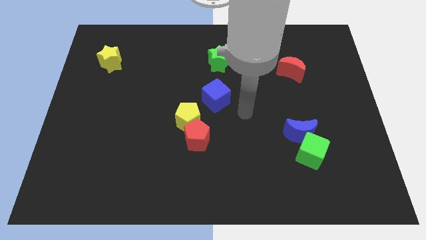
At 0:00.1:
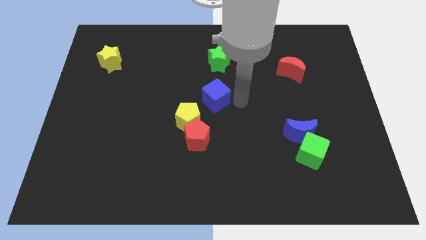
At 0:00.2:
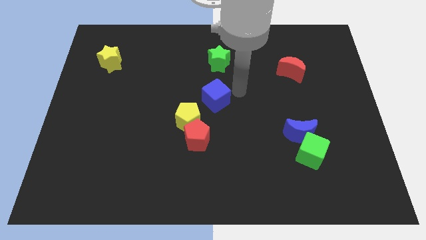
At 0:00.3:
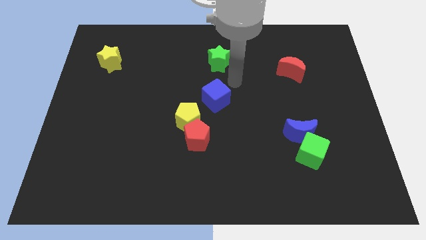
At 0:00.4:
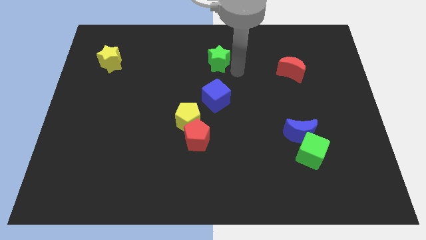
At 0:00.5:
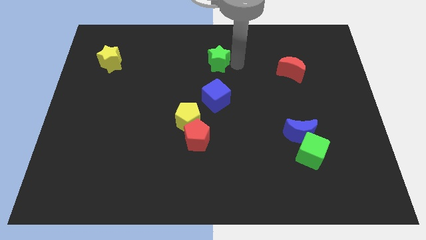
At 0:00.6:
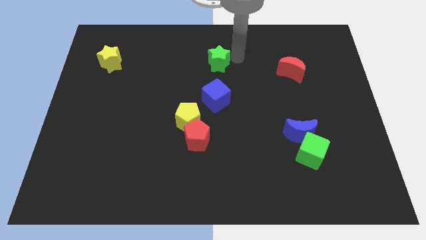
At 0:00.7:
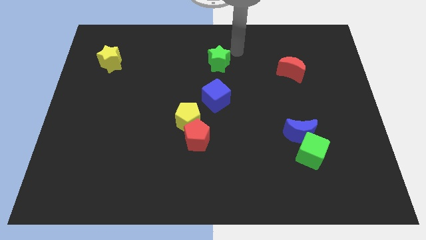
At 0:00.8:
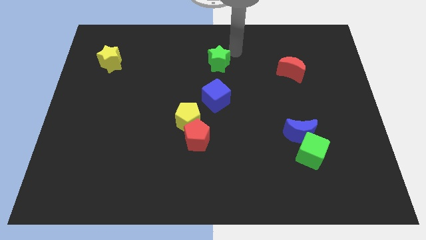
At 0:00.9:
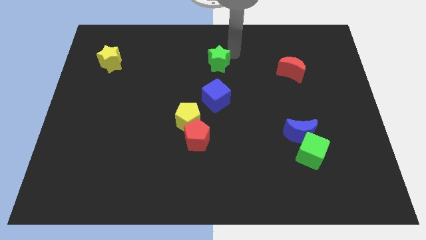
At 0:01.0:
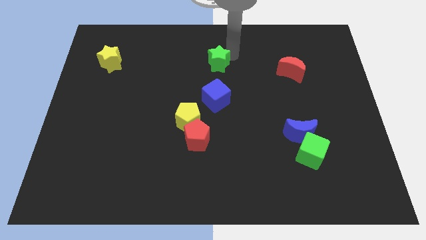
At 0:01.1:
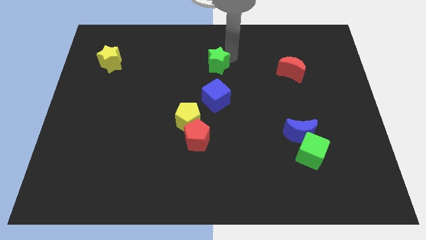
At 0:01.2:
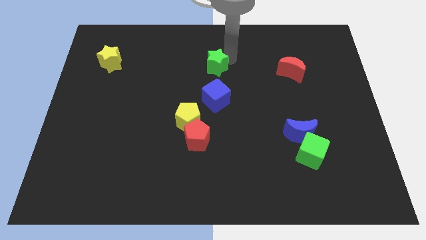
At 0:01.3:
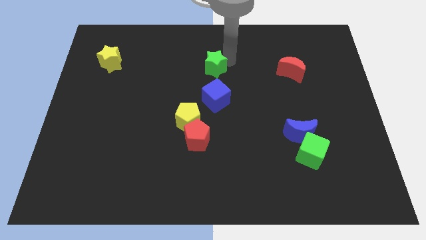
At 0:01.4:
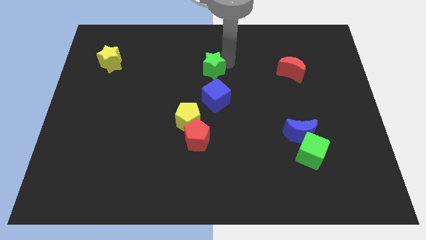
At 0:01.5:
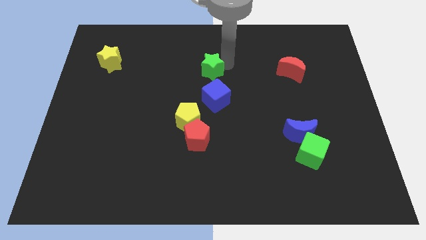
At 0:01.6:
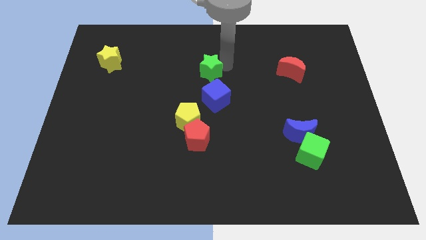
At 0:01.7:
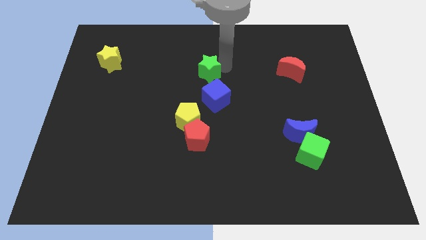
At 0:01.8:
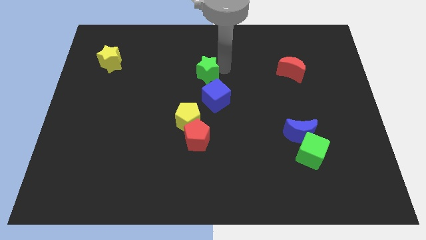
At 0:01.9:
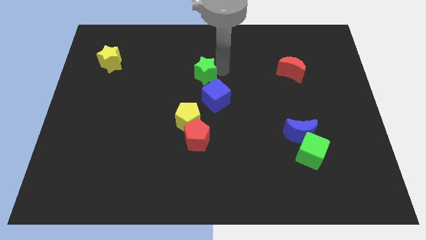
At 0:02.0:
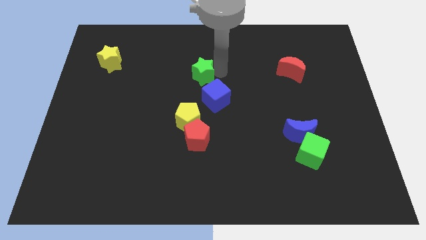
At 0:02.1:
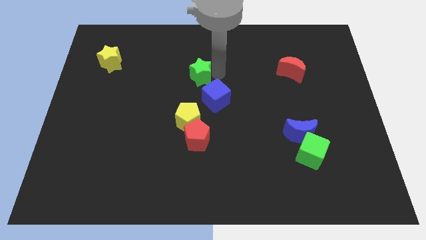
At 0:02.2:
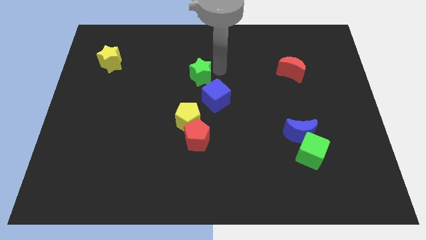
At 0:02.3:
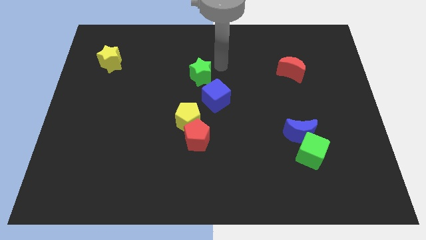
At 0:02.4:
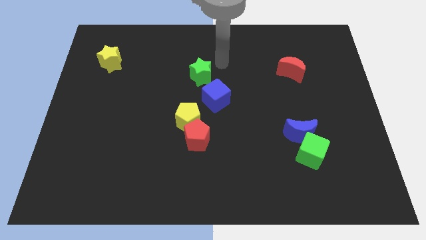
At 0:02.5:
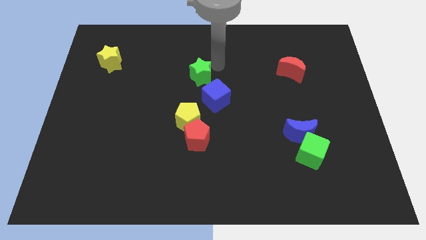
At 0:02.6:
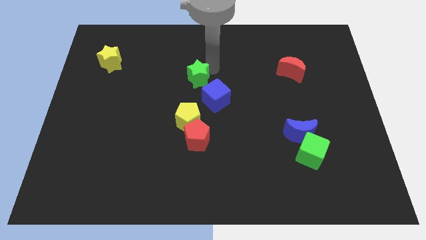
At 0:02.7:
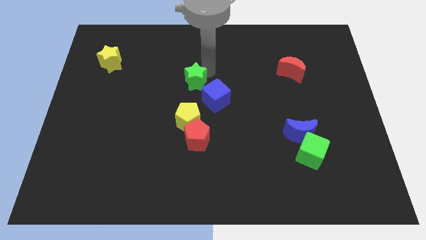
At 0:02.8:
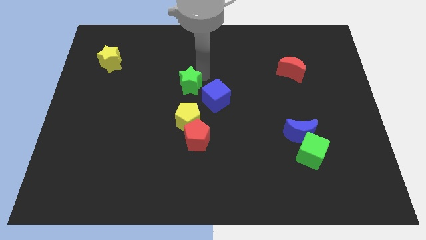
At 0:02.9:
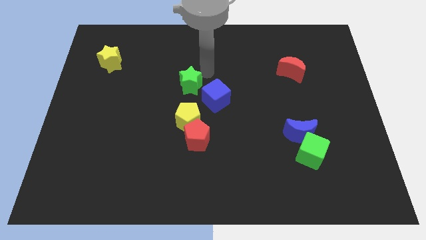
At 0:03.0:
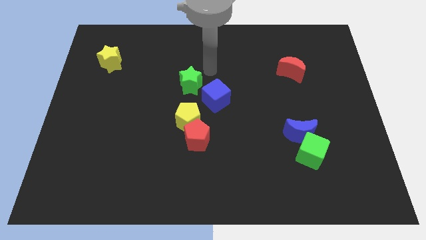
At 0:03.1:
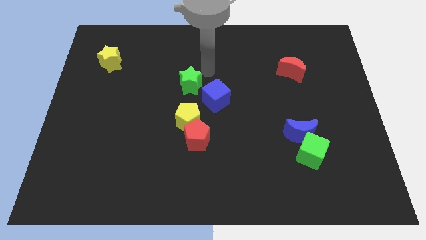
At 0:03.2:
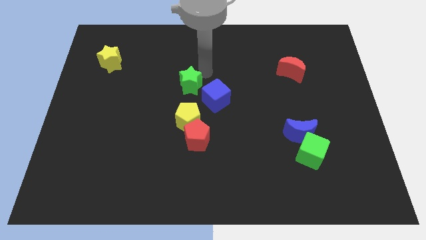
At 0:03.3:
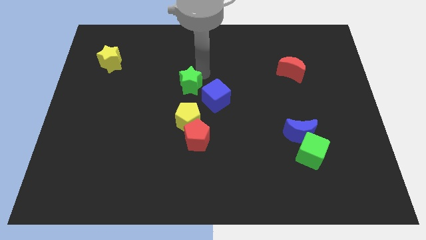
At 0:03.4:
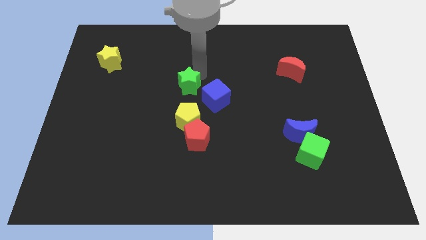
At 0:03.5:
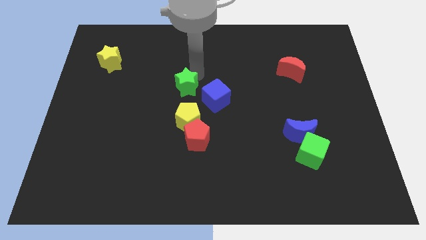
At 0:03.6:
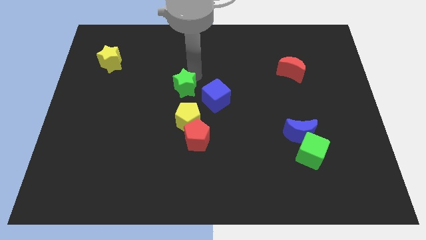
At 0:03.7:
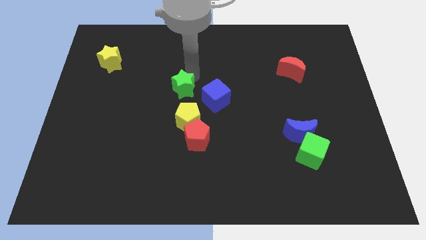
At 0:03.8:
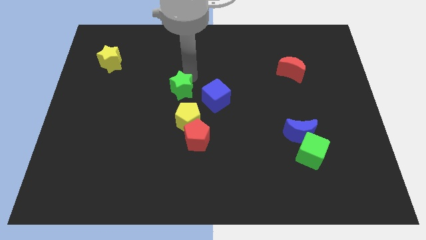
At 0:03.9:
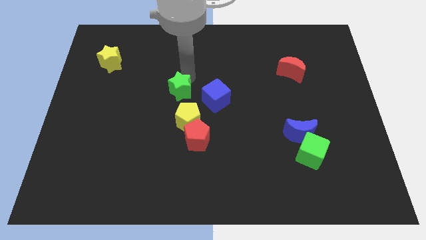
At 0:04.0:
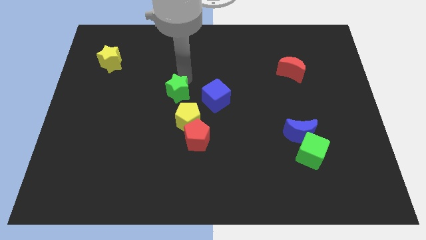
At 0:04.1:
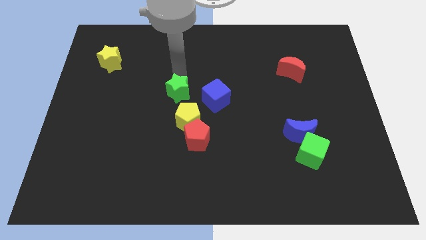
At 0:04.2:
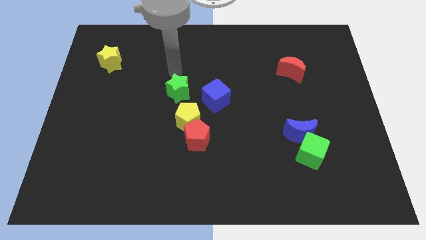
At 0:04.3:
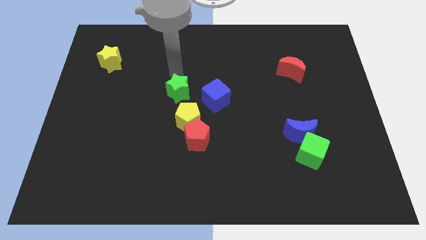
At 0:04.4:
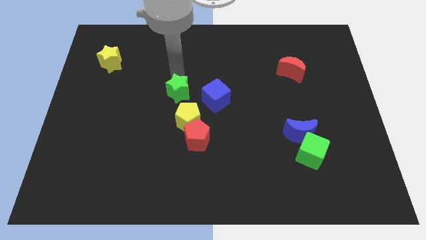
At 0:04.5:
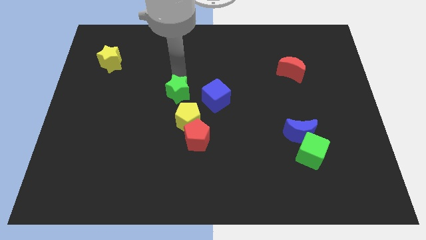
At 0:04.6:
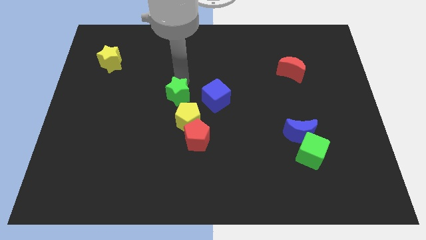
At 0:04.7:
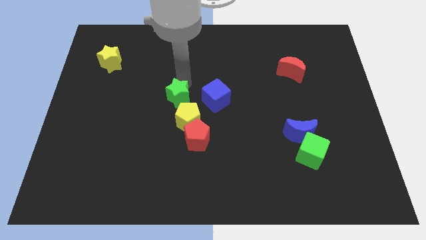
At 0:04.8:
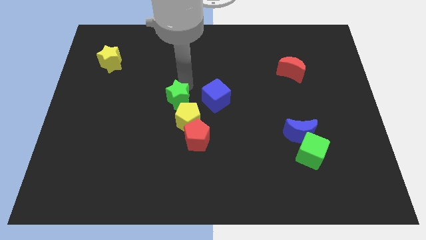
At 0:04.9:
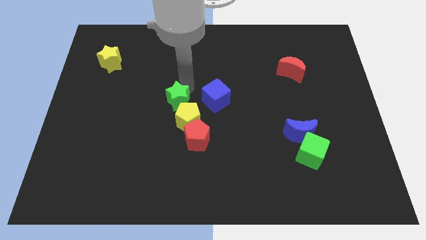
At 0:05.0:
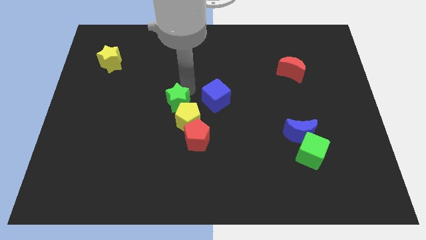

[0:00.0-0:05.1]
slide the green star next to the yellow pentagon

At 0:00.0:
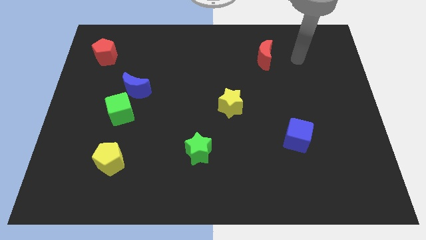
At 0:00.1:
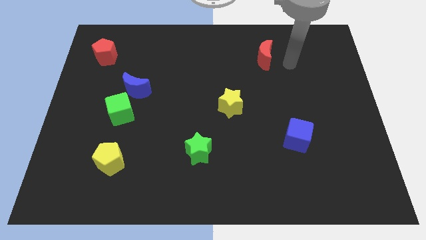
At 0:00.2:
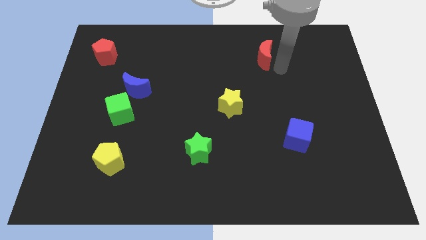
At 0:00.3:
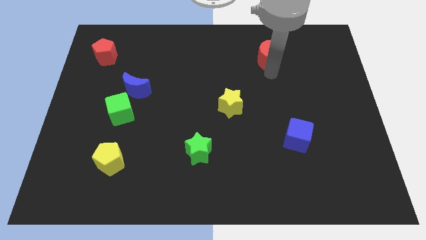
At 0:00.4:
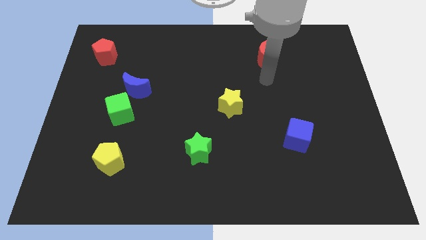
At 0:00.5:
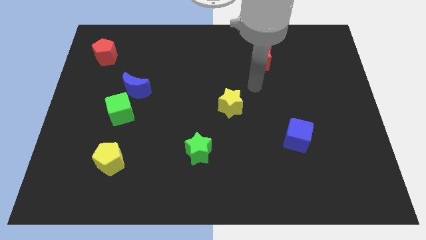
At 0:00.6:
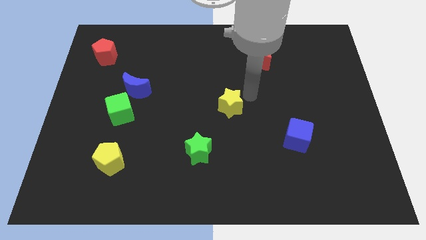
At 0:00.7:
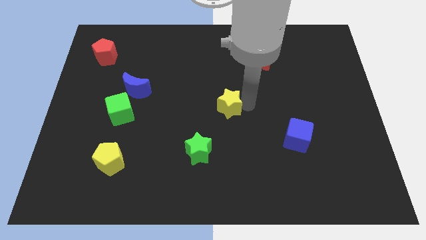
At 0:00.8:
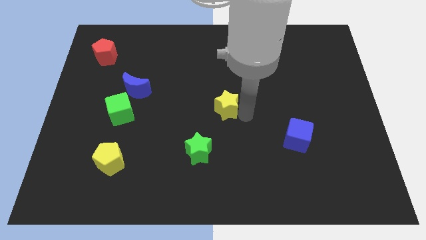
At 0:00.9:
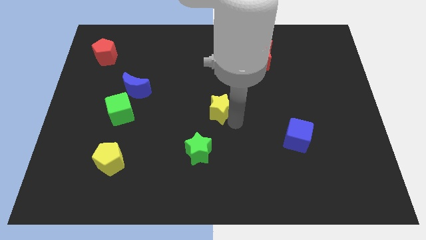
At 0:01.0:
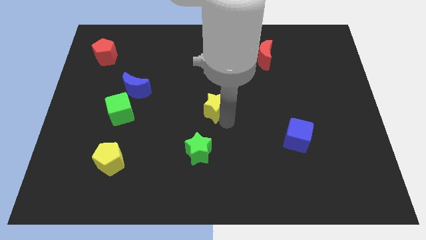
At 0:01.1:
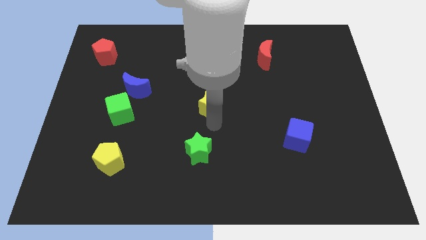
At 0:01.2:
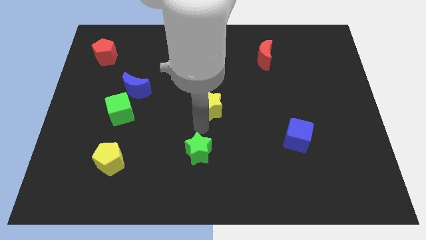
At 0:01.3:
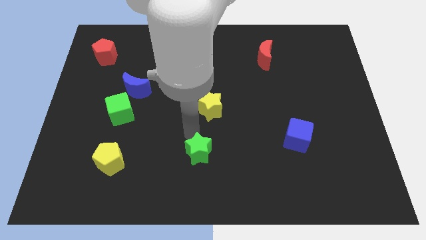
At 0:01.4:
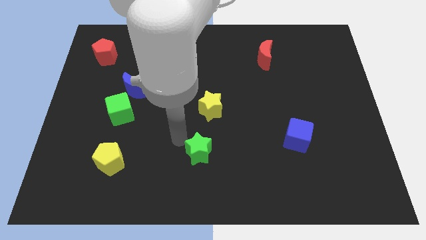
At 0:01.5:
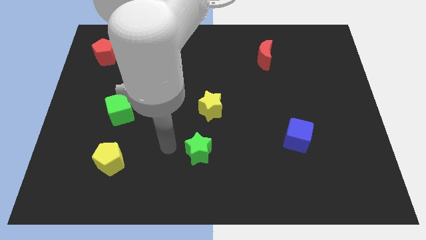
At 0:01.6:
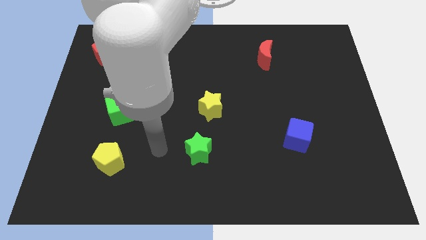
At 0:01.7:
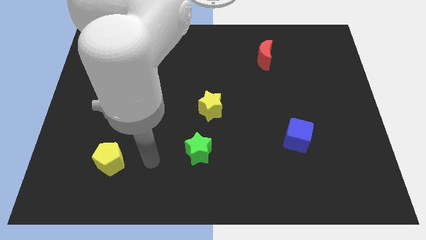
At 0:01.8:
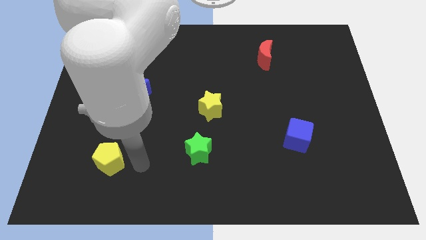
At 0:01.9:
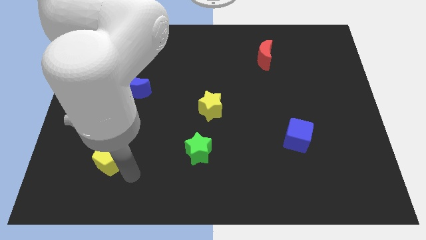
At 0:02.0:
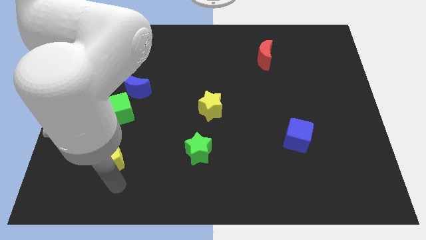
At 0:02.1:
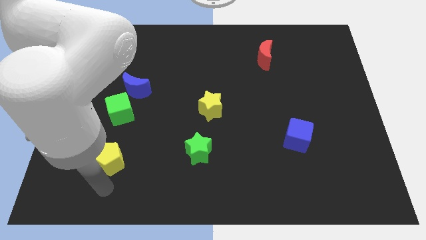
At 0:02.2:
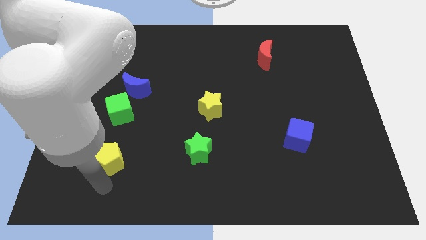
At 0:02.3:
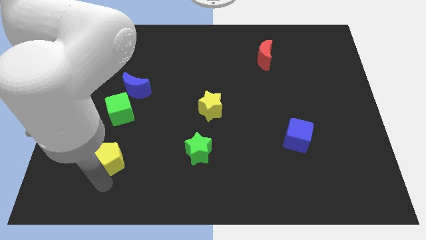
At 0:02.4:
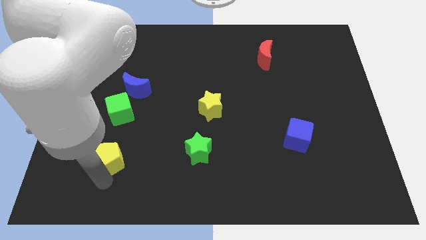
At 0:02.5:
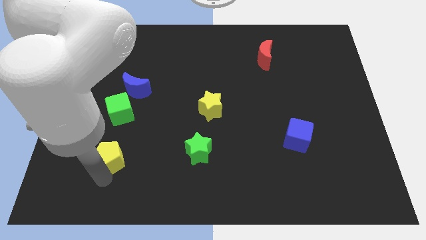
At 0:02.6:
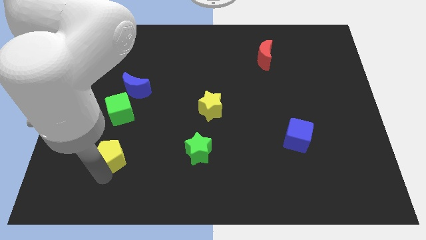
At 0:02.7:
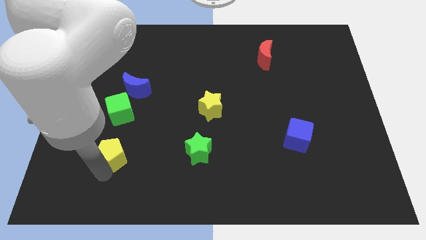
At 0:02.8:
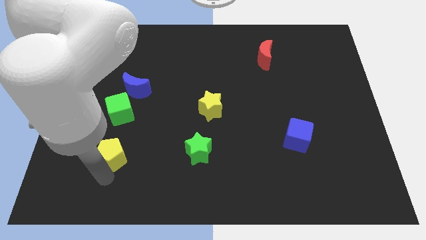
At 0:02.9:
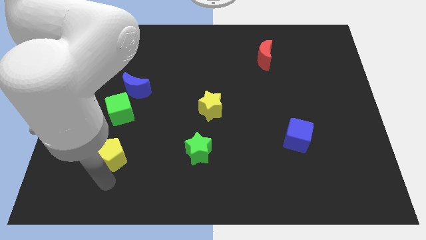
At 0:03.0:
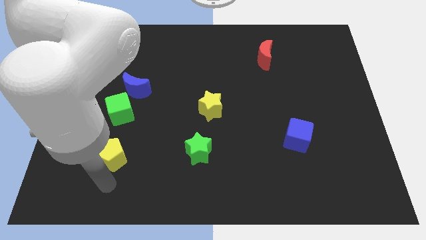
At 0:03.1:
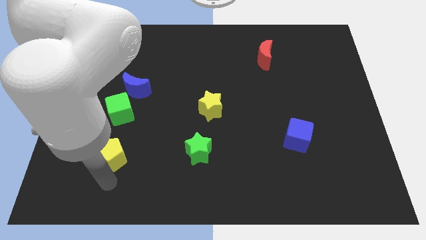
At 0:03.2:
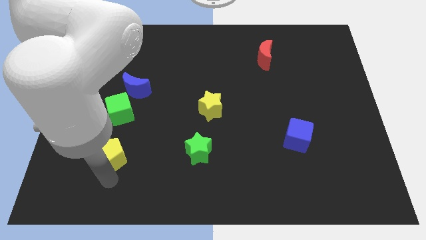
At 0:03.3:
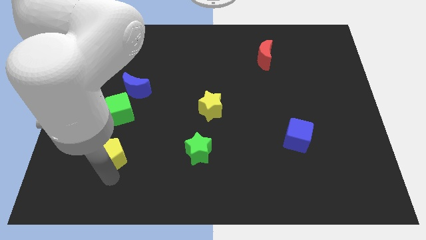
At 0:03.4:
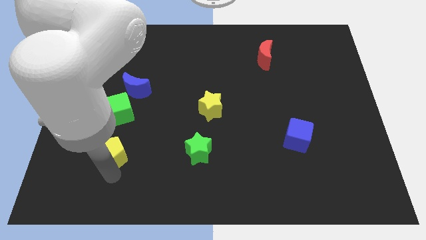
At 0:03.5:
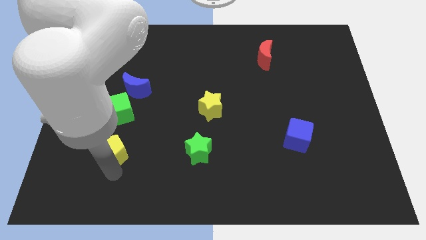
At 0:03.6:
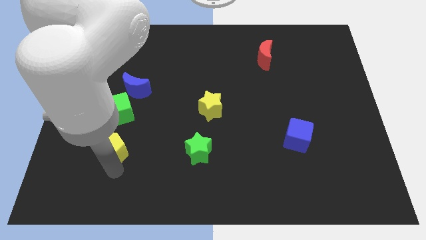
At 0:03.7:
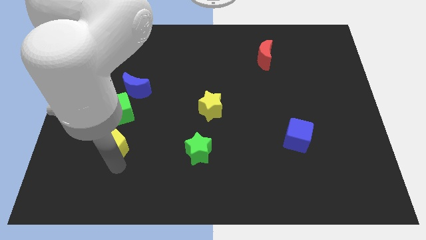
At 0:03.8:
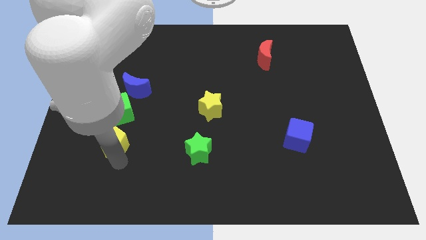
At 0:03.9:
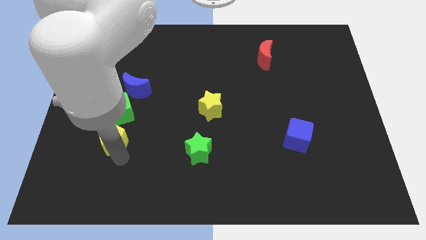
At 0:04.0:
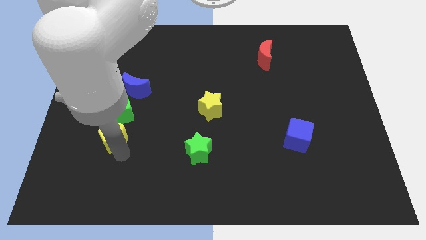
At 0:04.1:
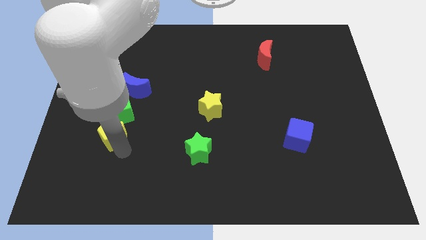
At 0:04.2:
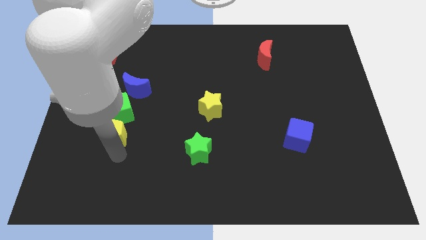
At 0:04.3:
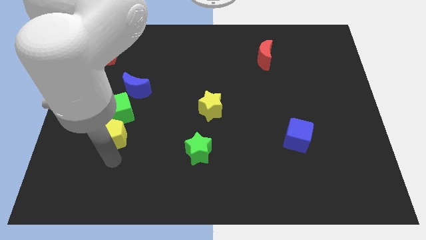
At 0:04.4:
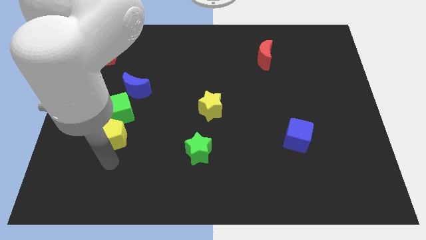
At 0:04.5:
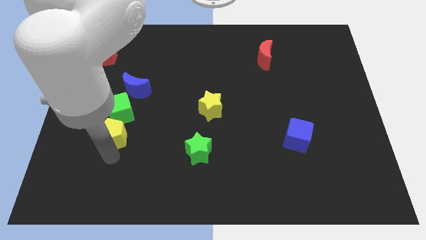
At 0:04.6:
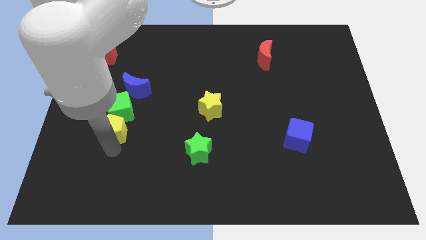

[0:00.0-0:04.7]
push the yellow pentagon towards the green cube
